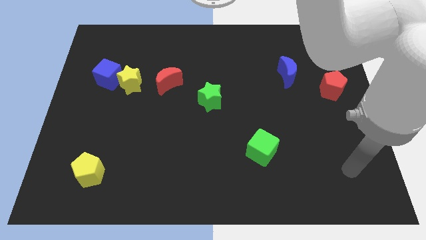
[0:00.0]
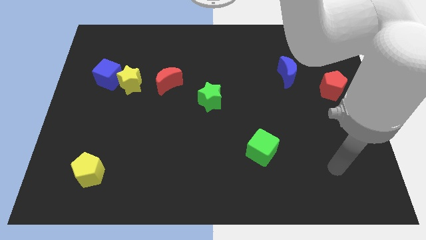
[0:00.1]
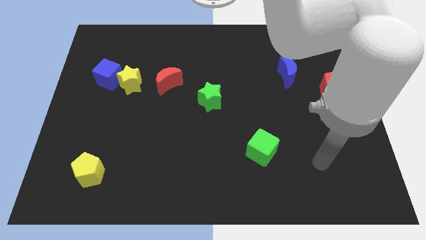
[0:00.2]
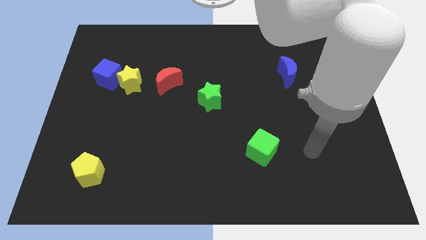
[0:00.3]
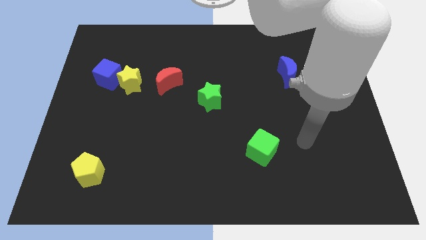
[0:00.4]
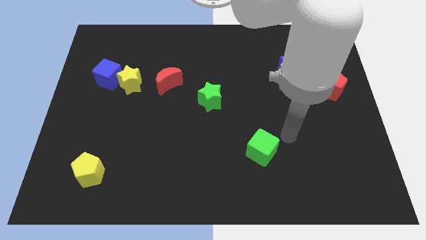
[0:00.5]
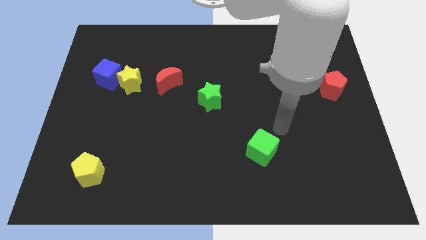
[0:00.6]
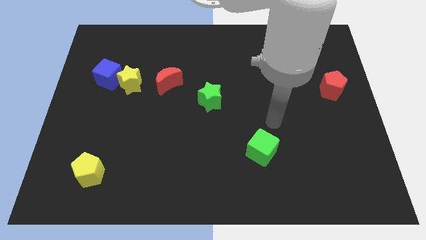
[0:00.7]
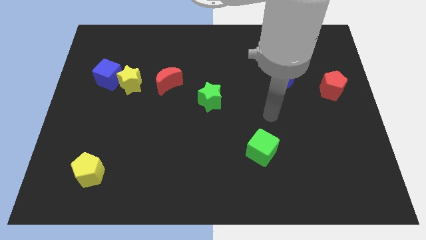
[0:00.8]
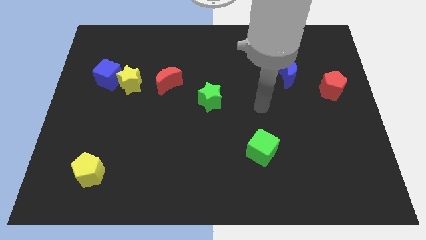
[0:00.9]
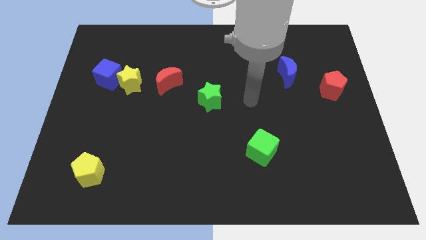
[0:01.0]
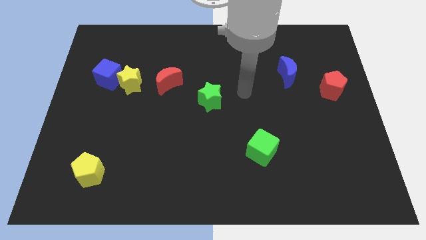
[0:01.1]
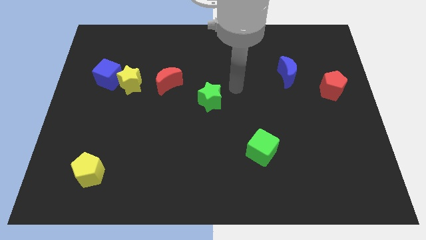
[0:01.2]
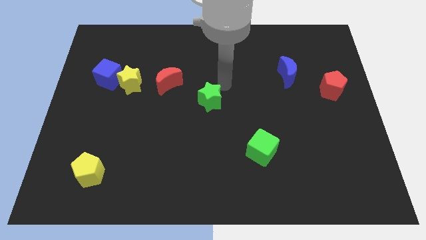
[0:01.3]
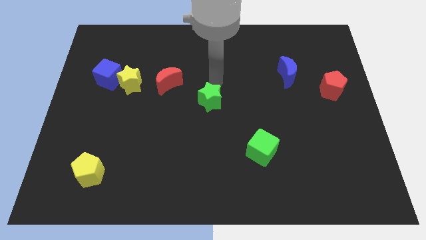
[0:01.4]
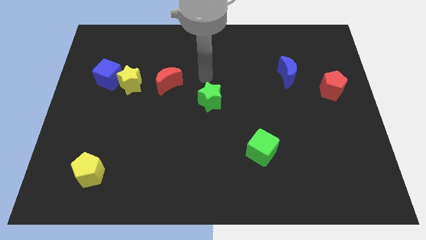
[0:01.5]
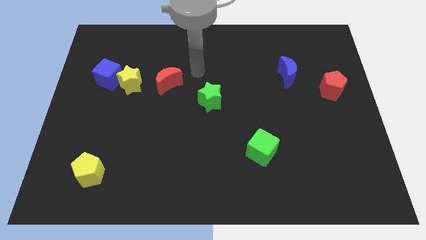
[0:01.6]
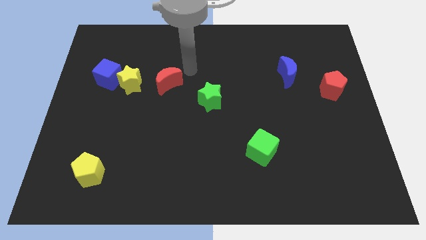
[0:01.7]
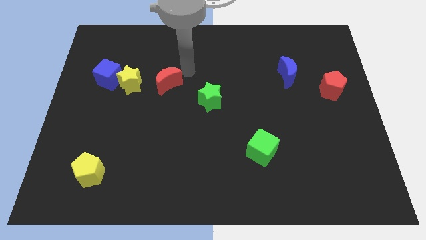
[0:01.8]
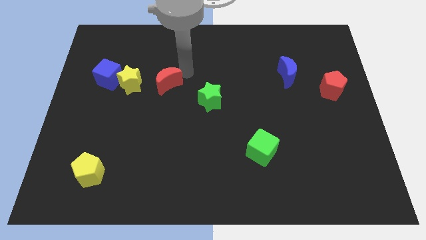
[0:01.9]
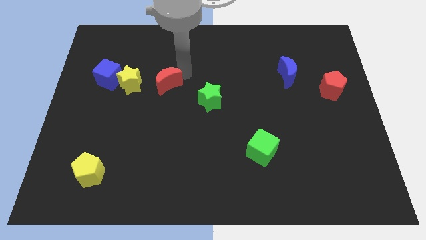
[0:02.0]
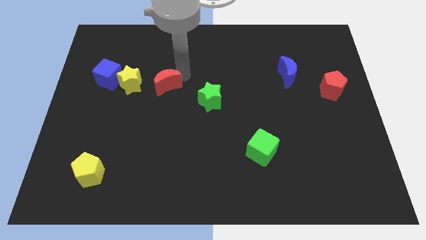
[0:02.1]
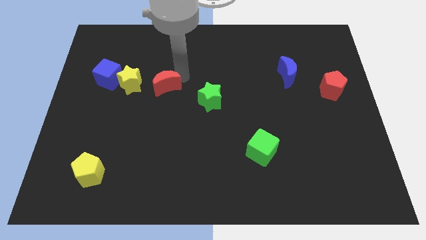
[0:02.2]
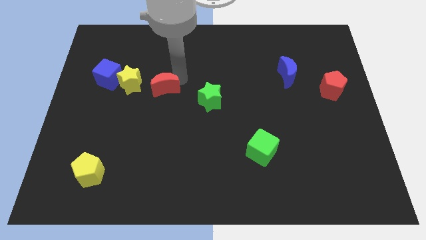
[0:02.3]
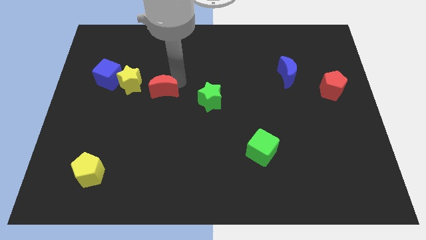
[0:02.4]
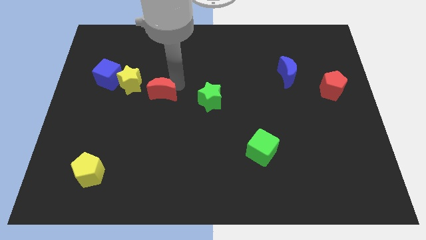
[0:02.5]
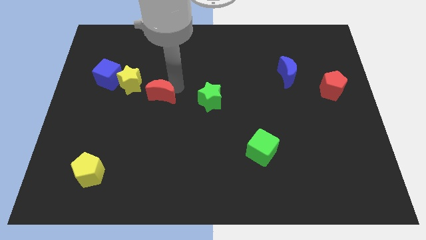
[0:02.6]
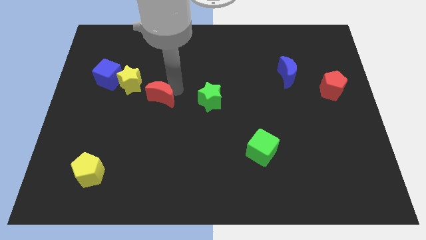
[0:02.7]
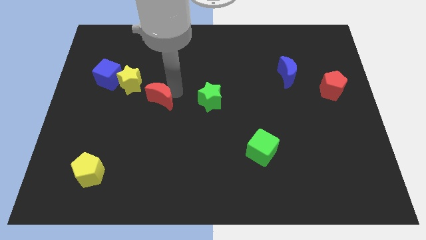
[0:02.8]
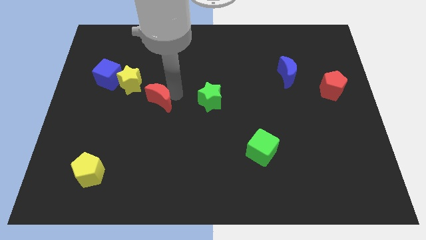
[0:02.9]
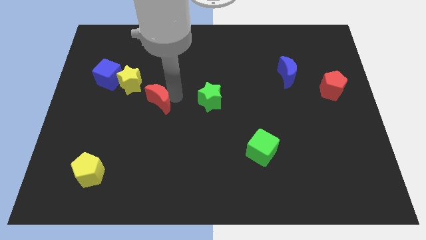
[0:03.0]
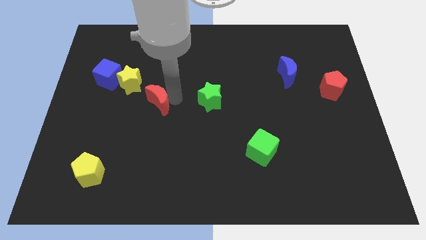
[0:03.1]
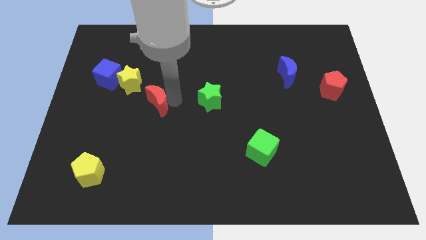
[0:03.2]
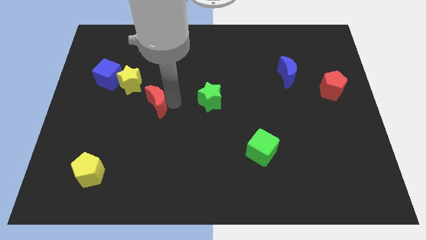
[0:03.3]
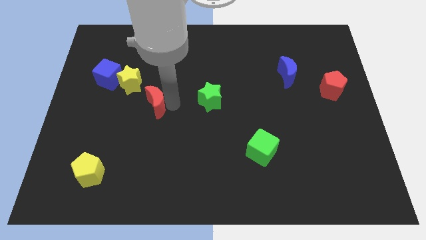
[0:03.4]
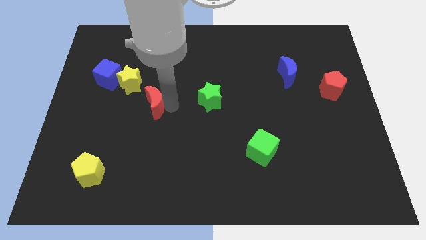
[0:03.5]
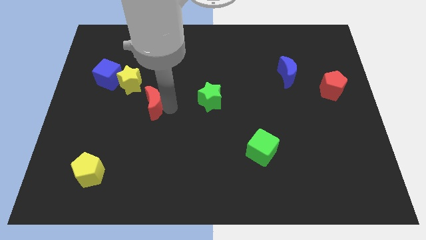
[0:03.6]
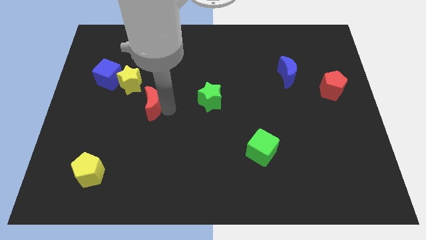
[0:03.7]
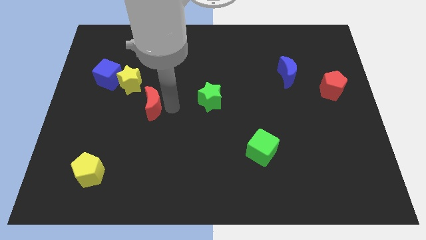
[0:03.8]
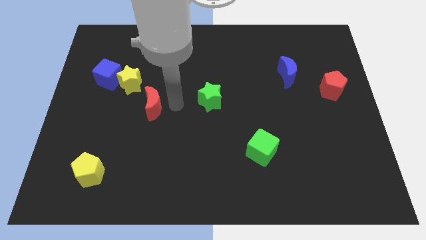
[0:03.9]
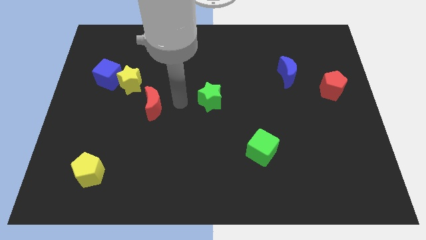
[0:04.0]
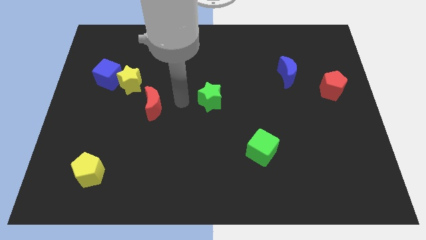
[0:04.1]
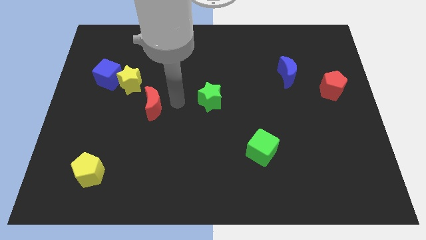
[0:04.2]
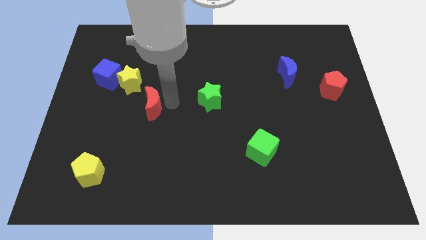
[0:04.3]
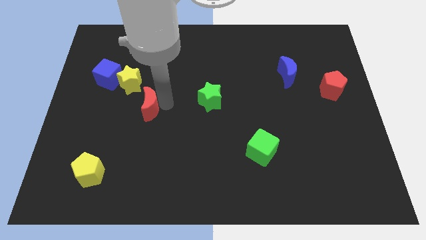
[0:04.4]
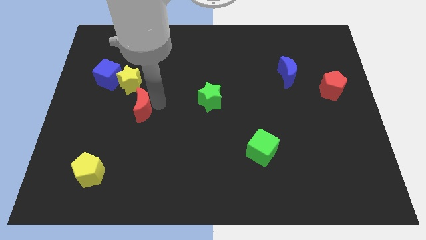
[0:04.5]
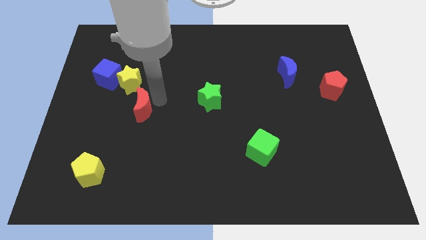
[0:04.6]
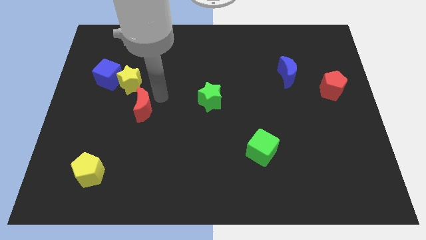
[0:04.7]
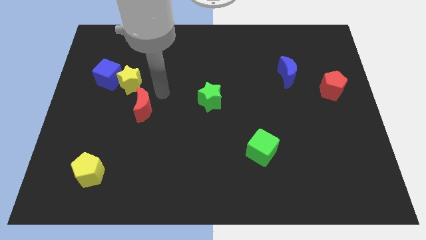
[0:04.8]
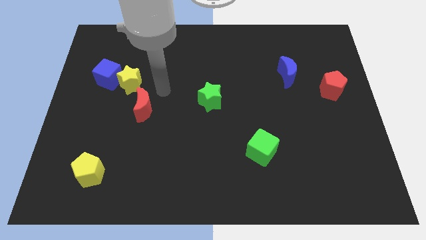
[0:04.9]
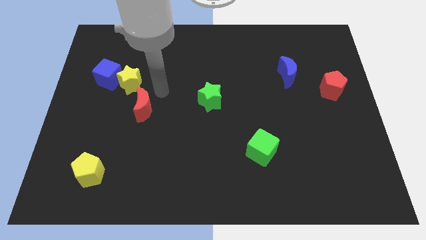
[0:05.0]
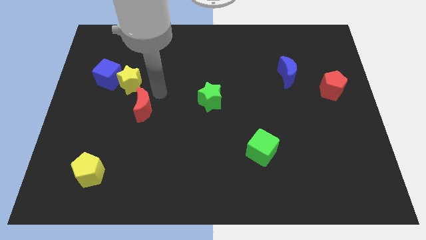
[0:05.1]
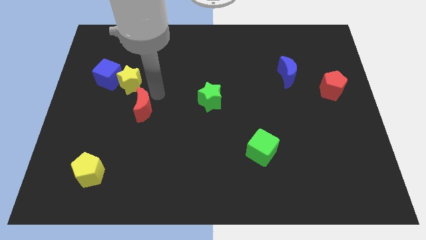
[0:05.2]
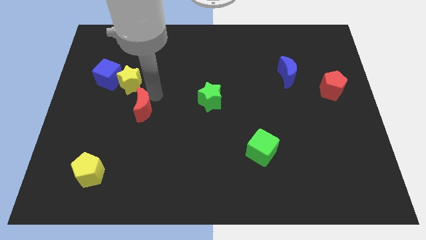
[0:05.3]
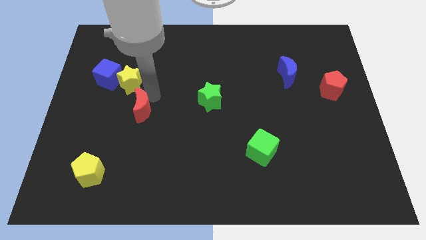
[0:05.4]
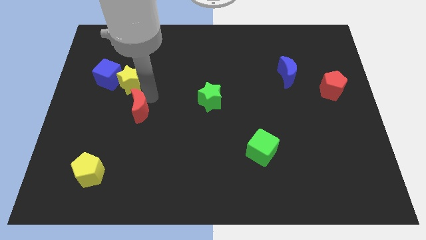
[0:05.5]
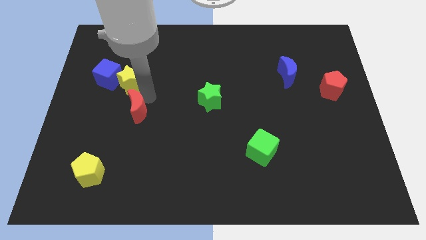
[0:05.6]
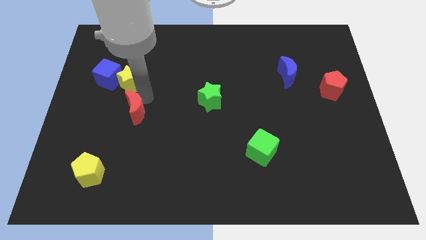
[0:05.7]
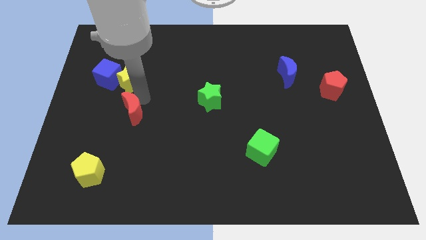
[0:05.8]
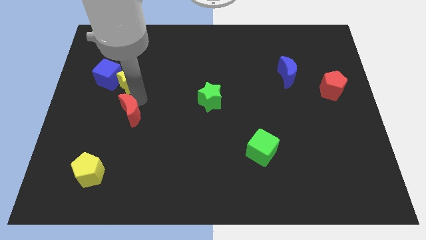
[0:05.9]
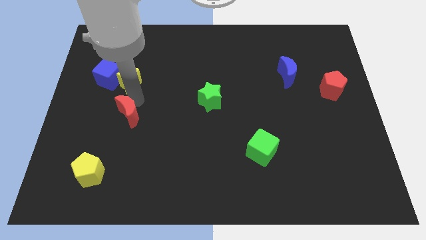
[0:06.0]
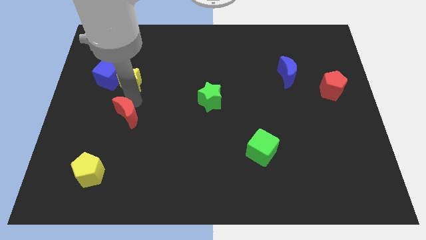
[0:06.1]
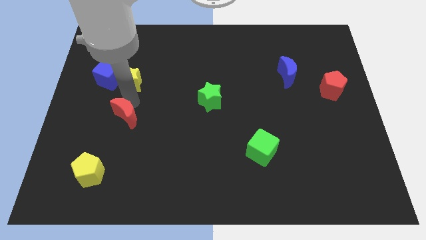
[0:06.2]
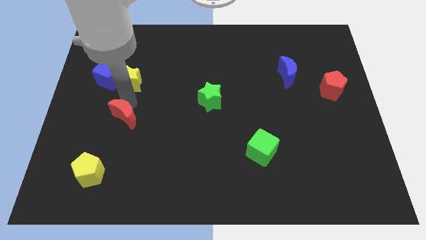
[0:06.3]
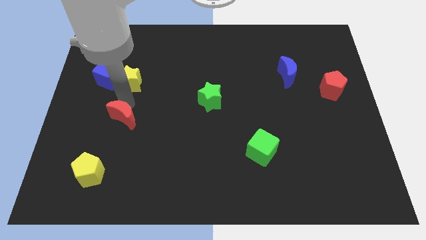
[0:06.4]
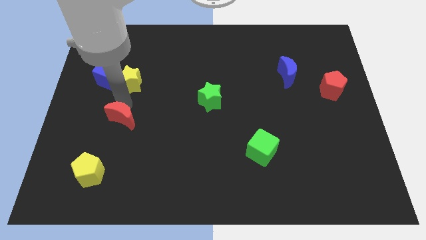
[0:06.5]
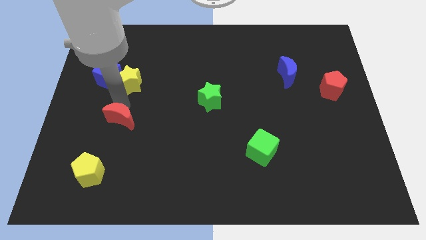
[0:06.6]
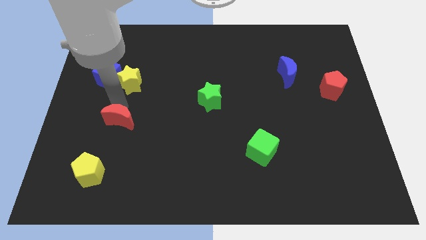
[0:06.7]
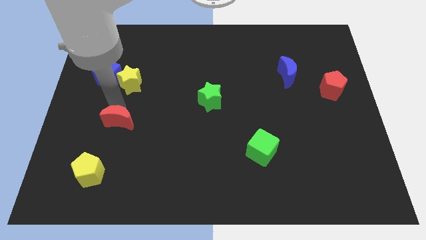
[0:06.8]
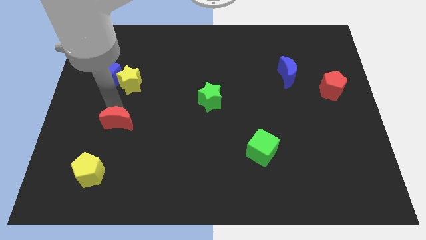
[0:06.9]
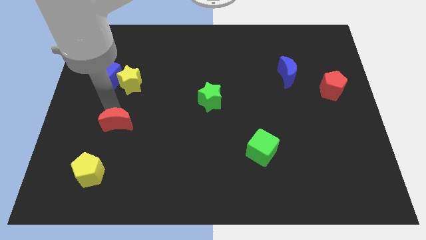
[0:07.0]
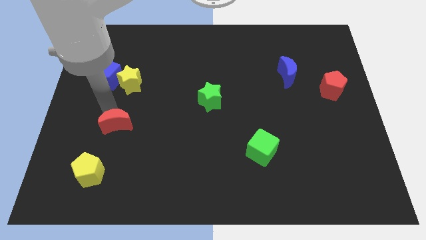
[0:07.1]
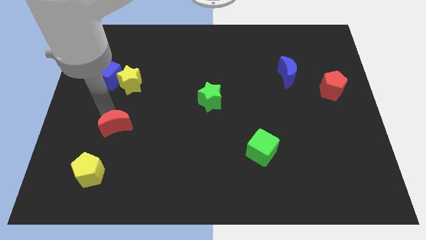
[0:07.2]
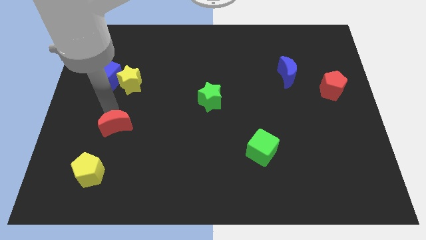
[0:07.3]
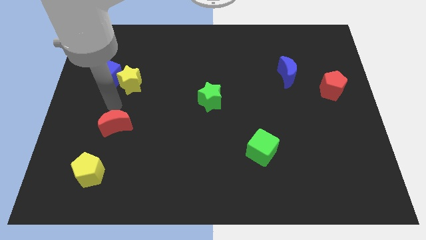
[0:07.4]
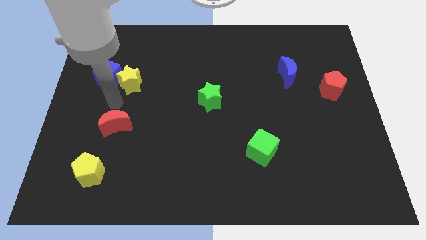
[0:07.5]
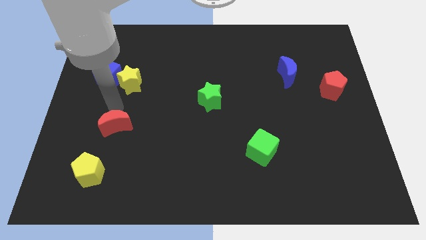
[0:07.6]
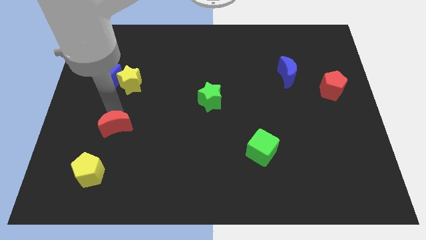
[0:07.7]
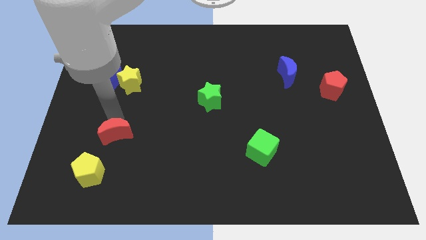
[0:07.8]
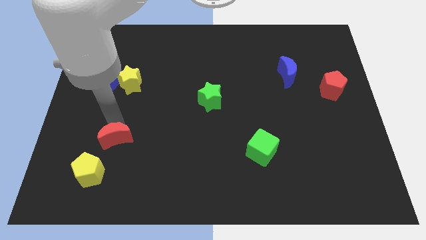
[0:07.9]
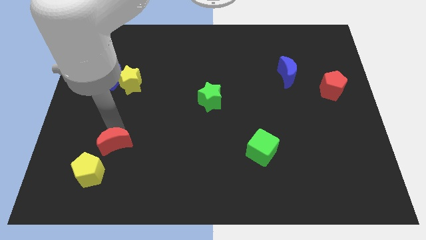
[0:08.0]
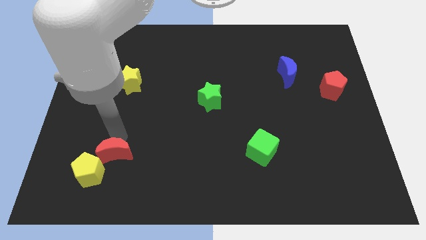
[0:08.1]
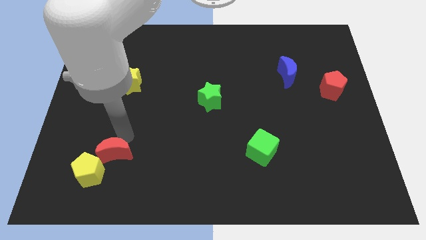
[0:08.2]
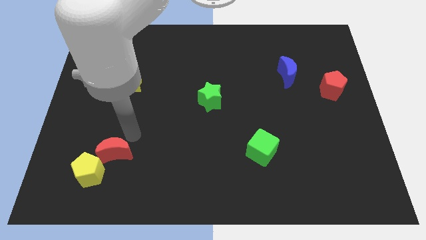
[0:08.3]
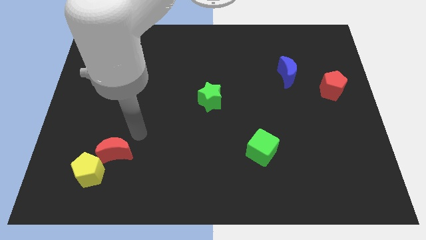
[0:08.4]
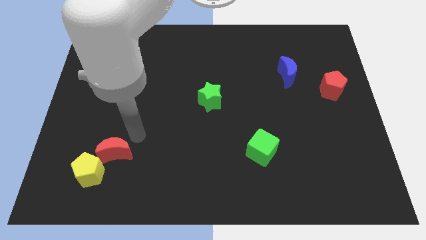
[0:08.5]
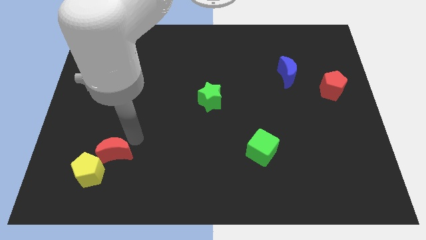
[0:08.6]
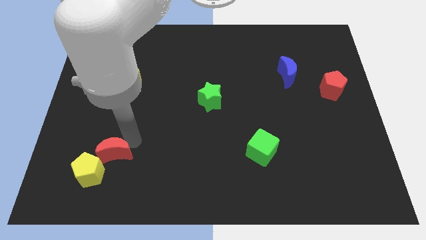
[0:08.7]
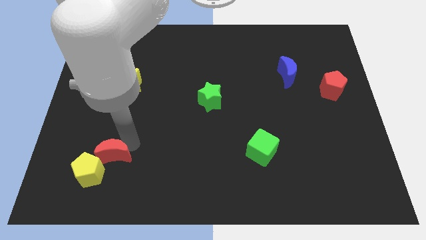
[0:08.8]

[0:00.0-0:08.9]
put the red moon close to the yellow pentagon
